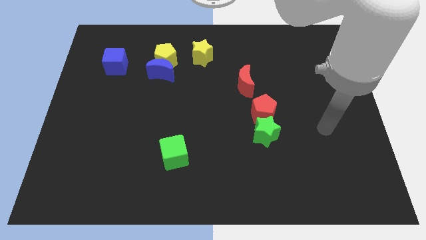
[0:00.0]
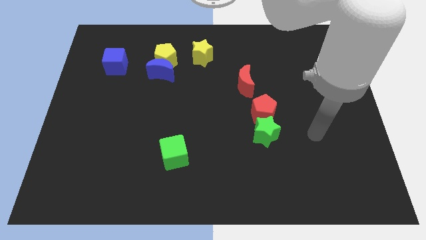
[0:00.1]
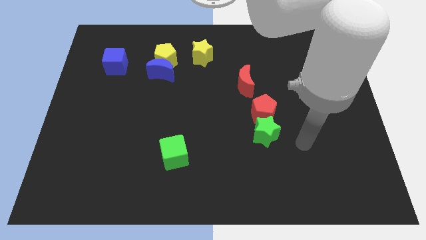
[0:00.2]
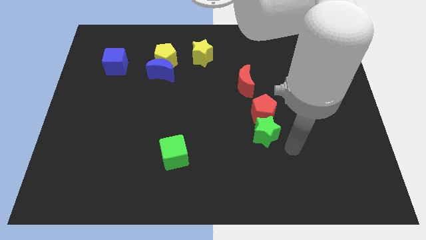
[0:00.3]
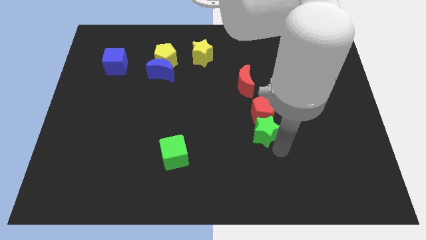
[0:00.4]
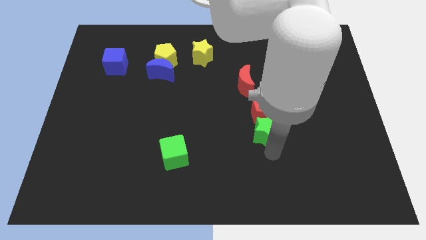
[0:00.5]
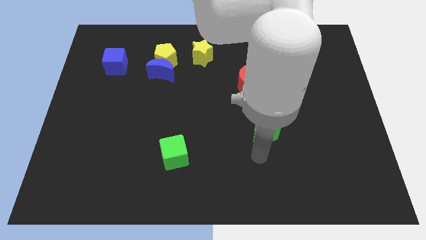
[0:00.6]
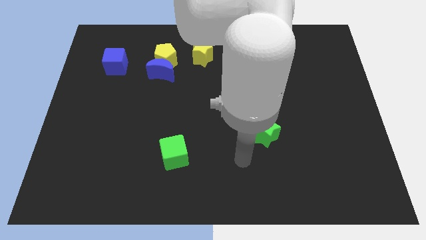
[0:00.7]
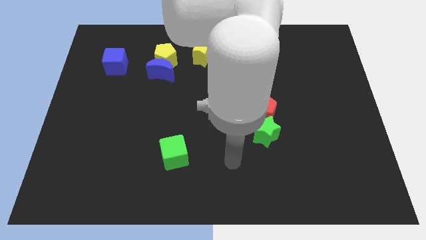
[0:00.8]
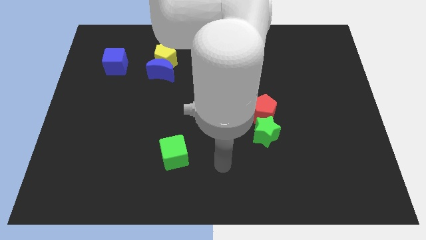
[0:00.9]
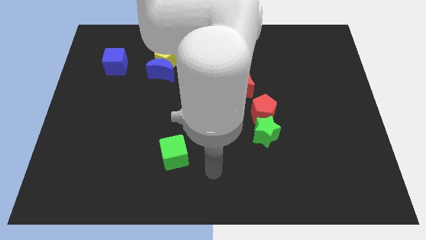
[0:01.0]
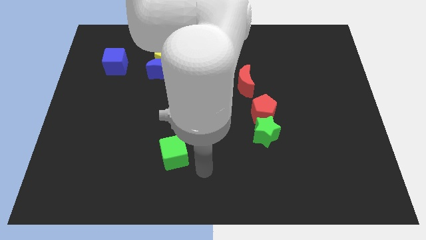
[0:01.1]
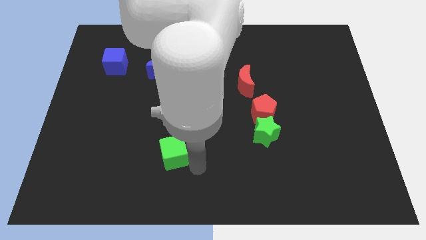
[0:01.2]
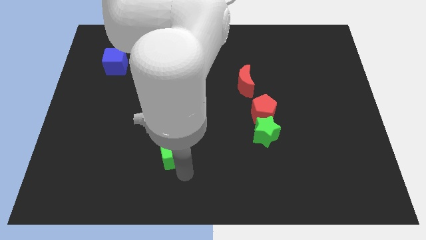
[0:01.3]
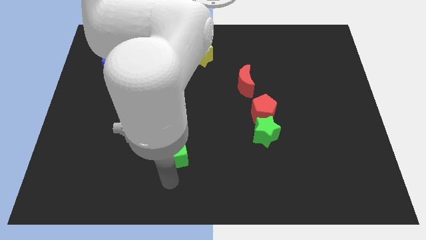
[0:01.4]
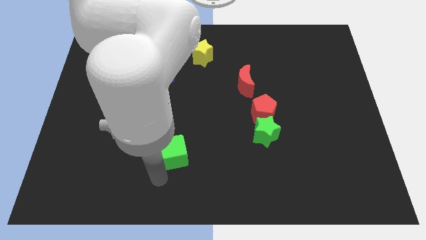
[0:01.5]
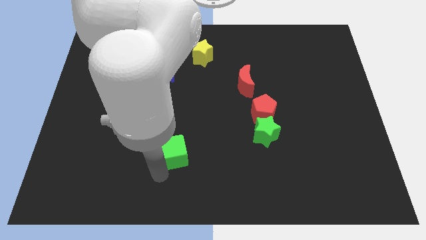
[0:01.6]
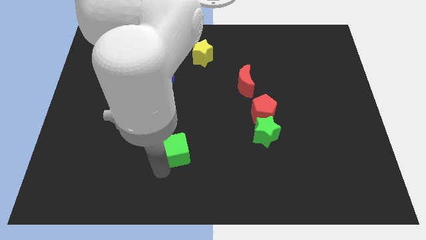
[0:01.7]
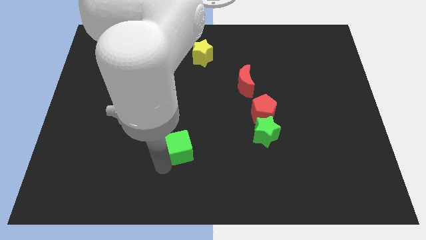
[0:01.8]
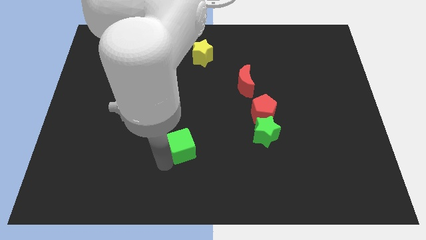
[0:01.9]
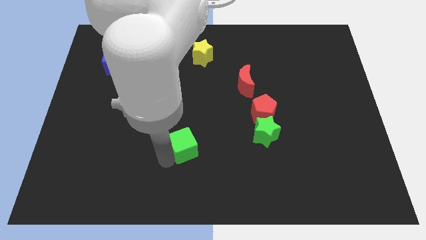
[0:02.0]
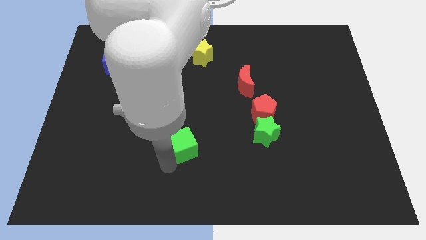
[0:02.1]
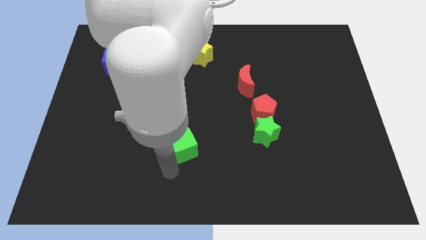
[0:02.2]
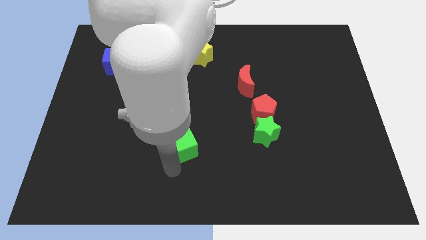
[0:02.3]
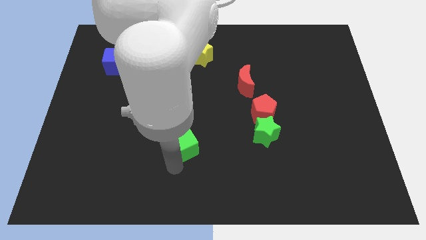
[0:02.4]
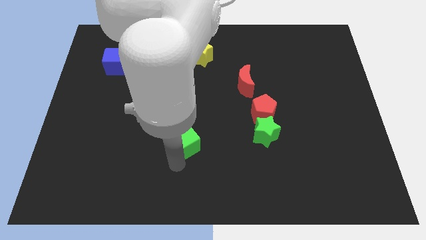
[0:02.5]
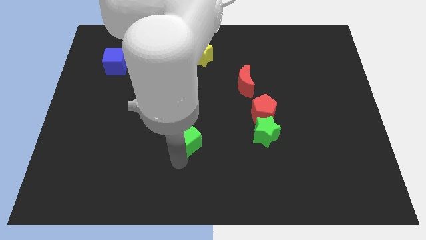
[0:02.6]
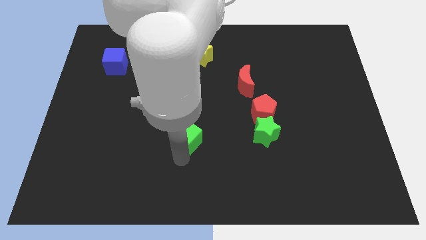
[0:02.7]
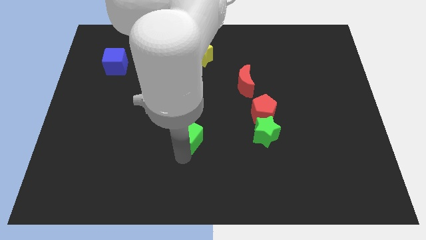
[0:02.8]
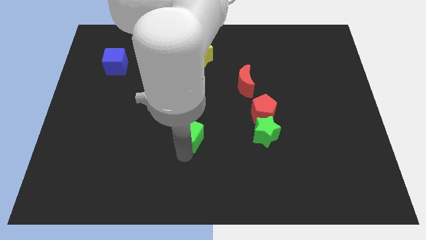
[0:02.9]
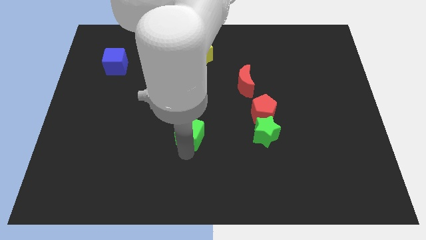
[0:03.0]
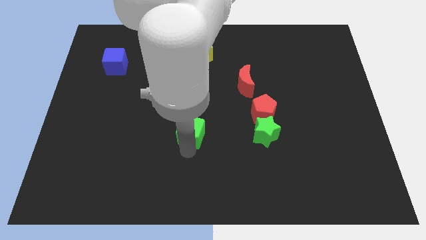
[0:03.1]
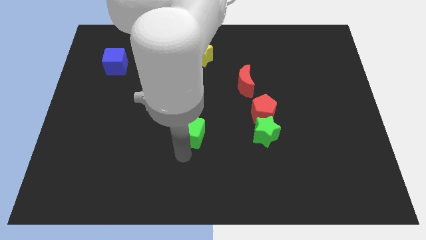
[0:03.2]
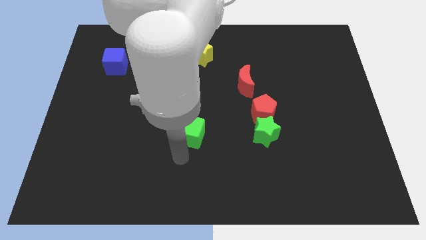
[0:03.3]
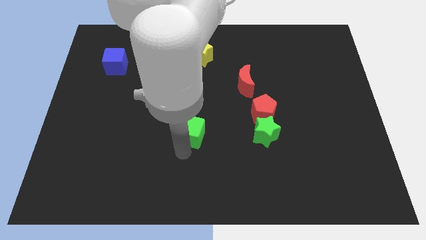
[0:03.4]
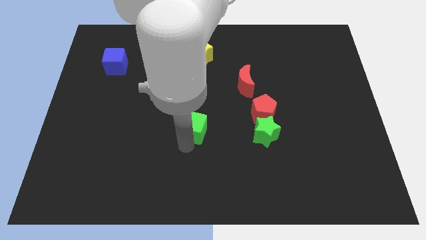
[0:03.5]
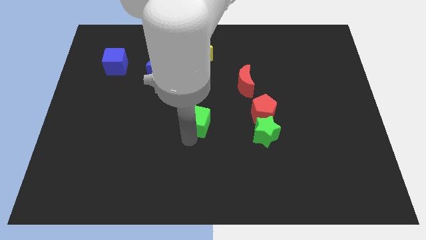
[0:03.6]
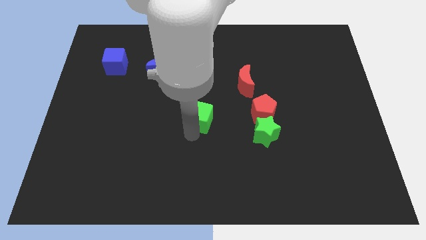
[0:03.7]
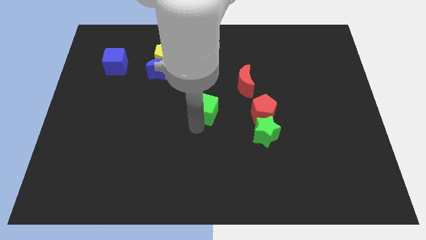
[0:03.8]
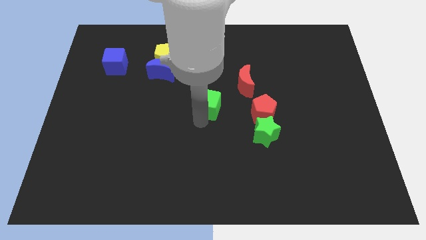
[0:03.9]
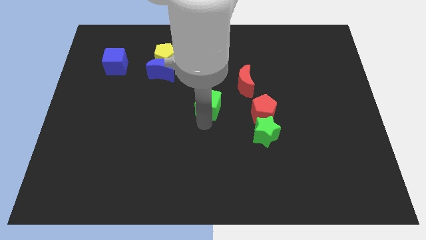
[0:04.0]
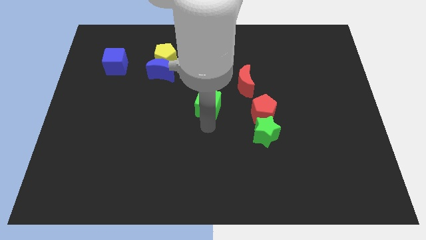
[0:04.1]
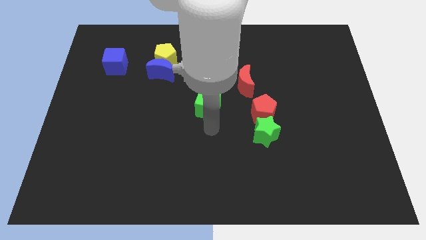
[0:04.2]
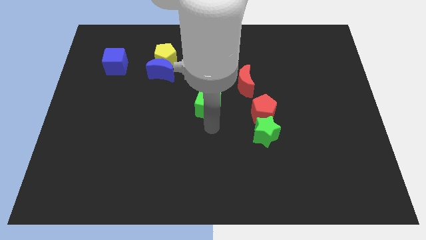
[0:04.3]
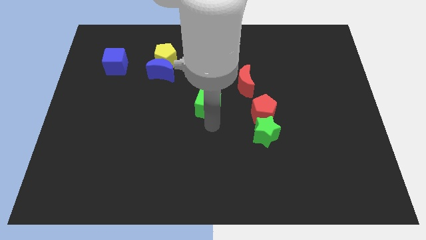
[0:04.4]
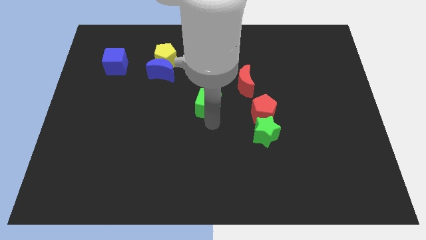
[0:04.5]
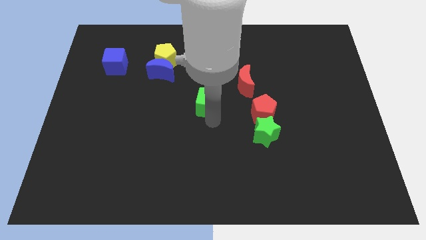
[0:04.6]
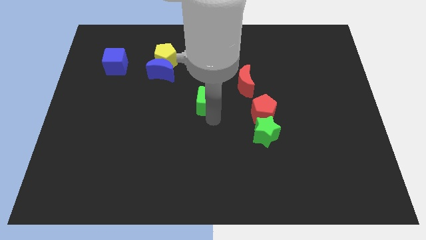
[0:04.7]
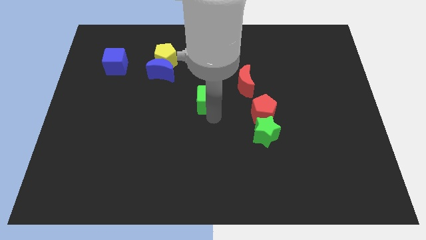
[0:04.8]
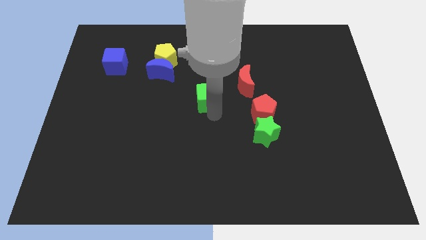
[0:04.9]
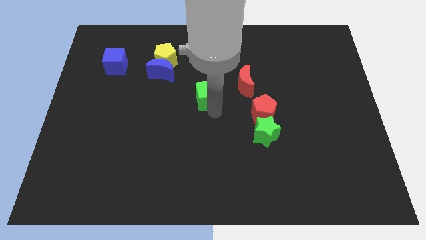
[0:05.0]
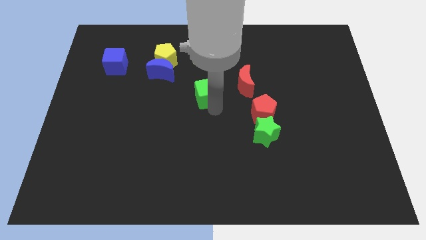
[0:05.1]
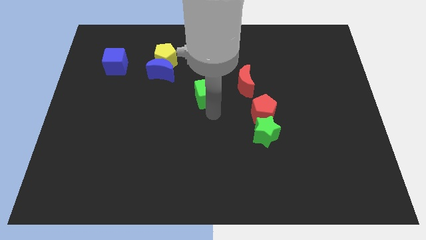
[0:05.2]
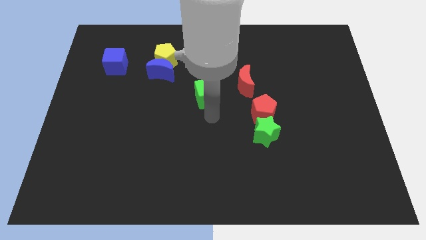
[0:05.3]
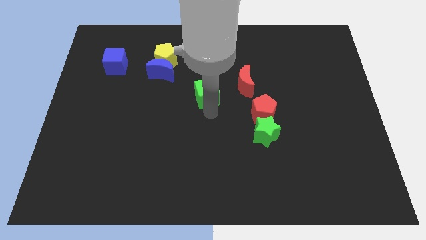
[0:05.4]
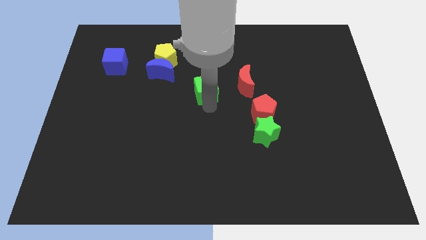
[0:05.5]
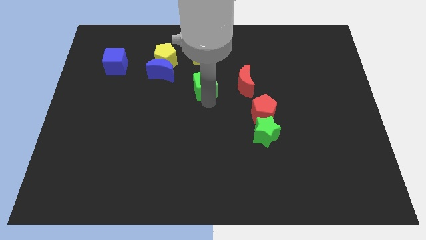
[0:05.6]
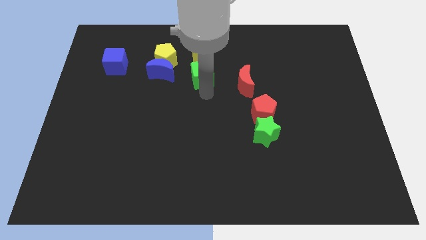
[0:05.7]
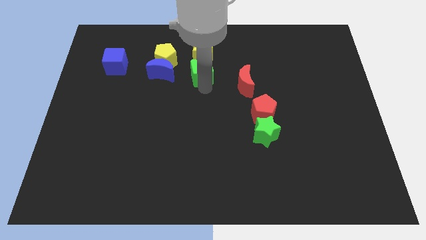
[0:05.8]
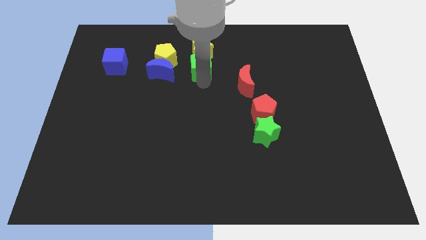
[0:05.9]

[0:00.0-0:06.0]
move the green cube to the yellow star

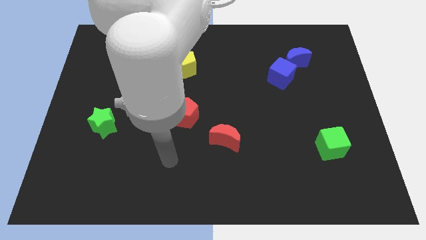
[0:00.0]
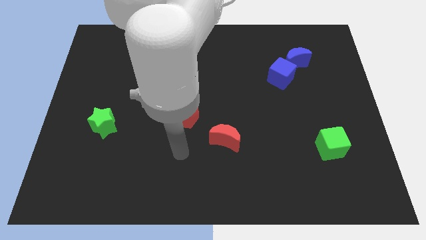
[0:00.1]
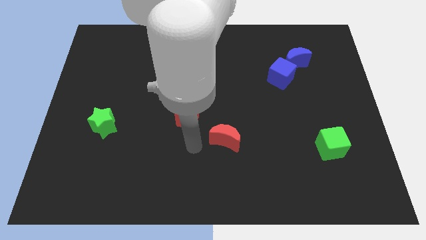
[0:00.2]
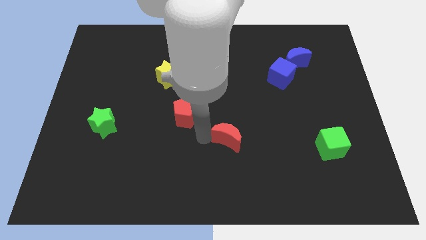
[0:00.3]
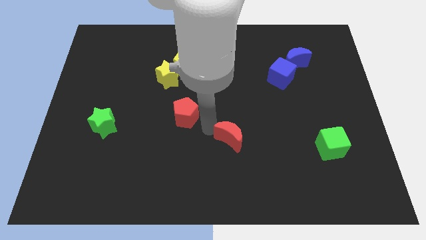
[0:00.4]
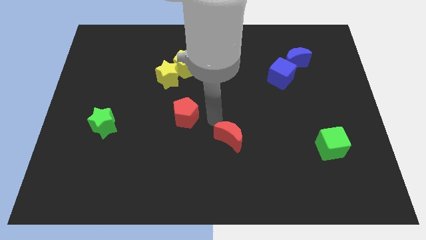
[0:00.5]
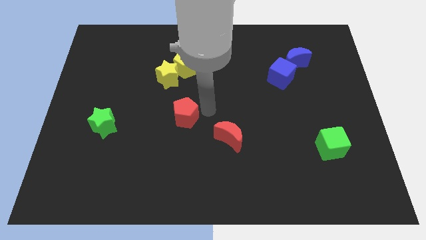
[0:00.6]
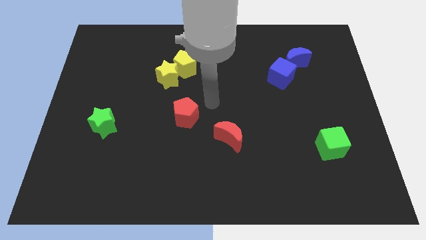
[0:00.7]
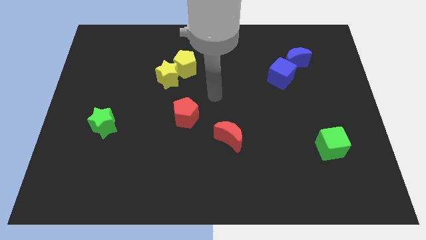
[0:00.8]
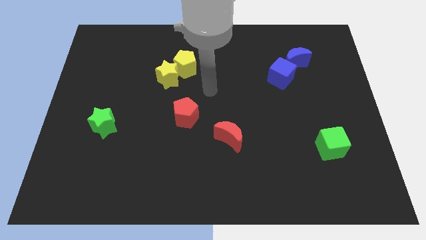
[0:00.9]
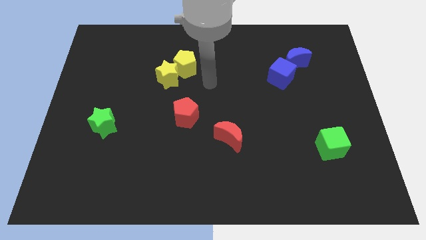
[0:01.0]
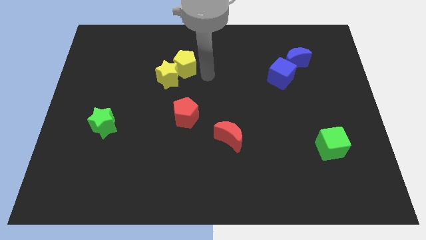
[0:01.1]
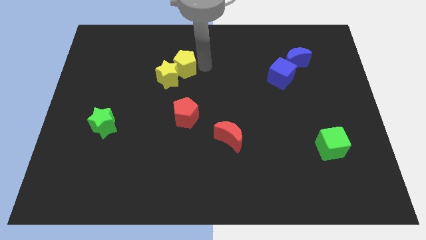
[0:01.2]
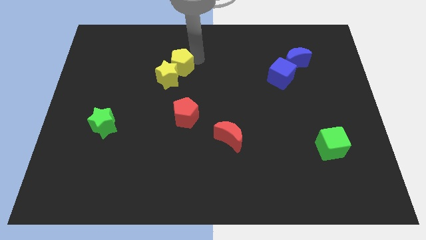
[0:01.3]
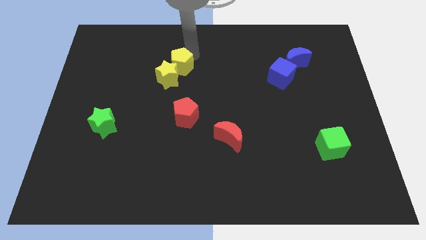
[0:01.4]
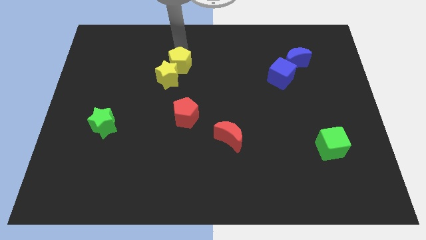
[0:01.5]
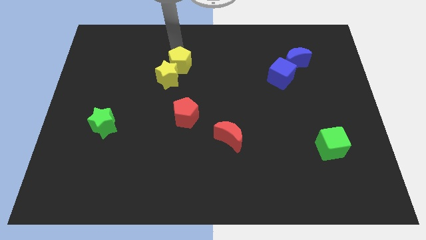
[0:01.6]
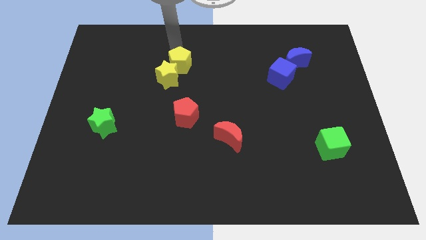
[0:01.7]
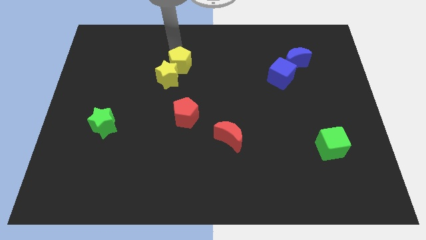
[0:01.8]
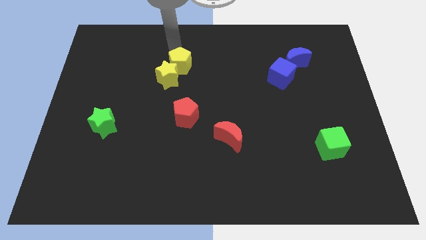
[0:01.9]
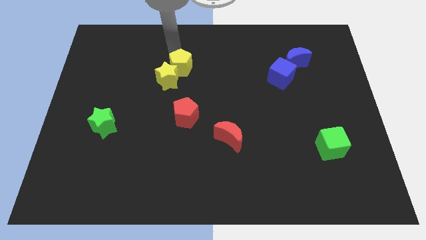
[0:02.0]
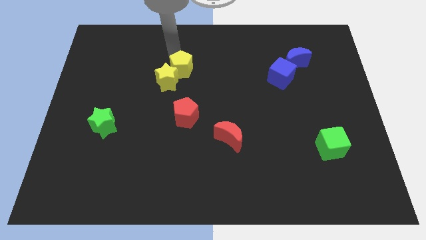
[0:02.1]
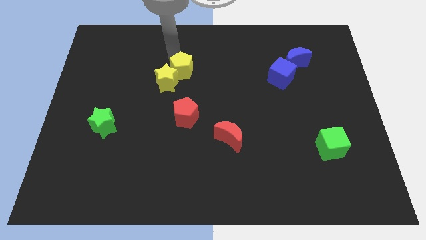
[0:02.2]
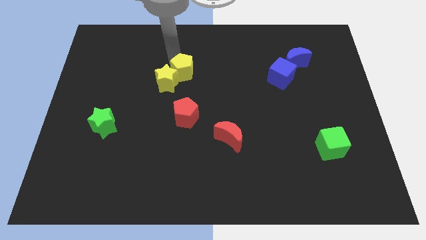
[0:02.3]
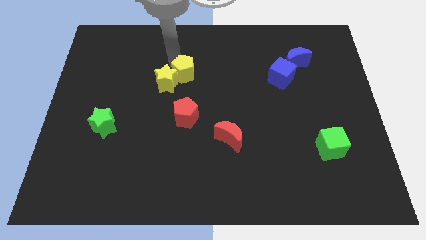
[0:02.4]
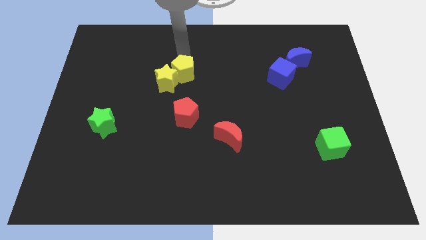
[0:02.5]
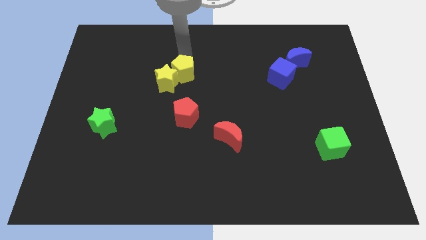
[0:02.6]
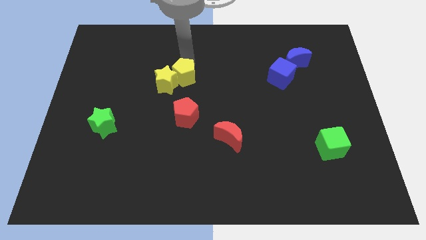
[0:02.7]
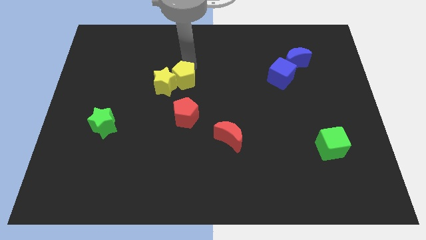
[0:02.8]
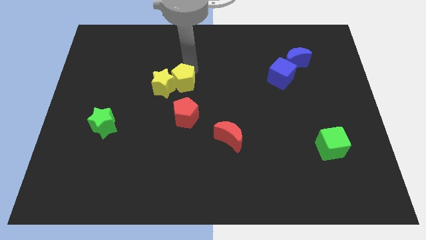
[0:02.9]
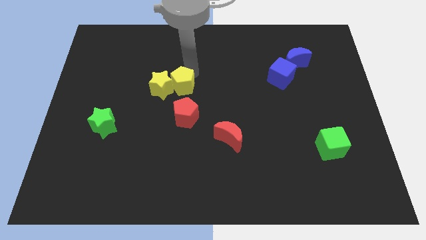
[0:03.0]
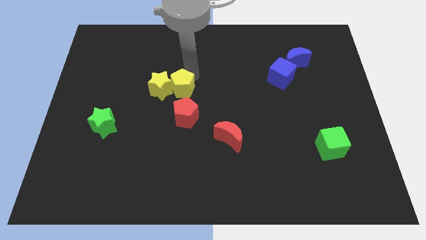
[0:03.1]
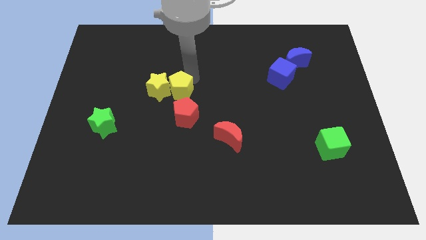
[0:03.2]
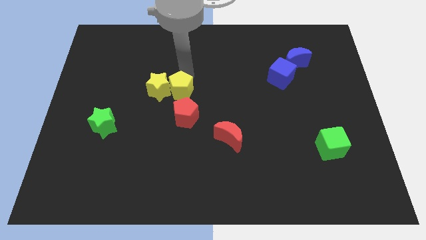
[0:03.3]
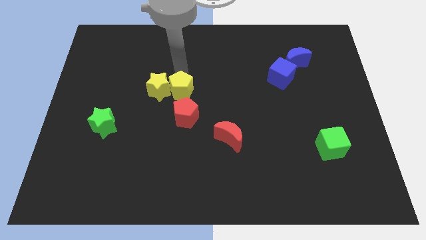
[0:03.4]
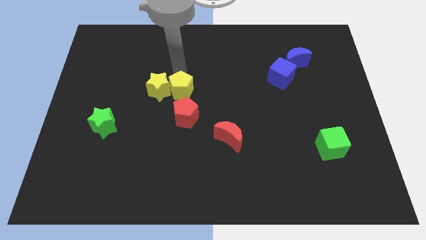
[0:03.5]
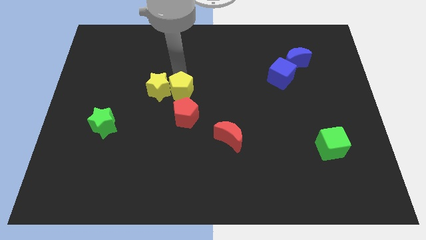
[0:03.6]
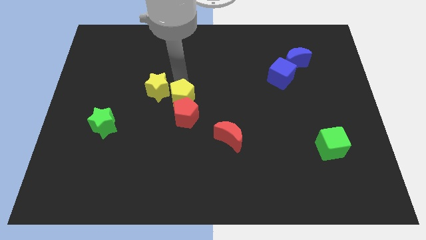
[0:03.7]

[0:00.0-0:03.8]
put the yellow pentagon close to the red pentagon
